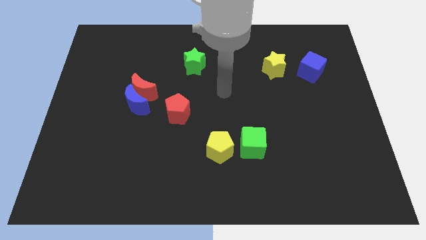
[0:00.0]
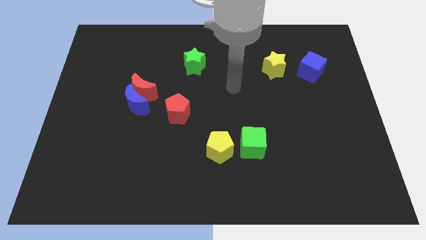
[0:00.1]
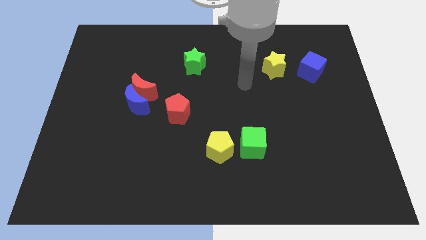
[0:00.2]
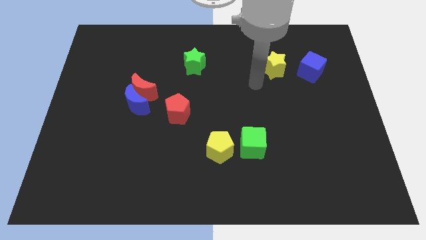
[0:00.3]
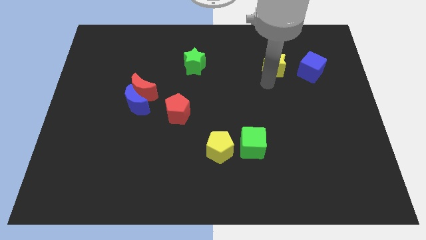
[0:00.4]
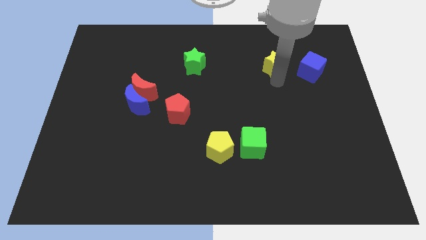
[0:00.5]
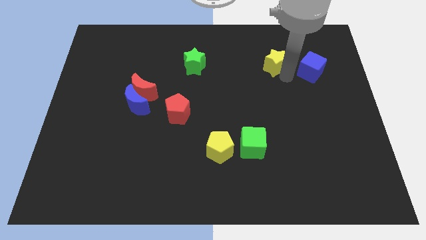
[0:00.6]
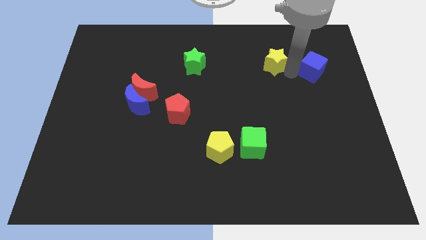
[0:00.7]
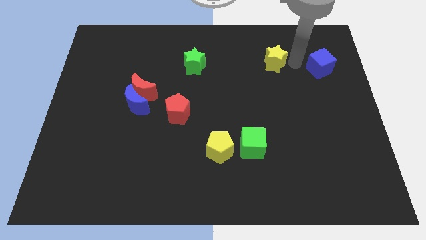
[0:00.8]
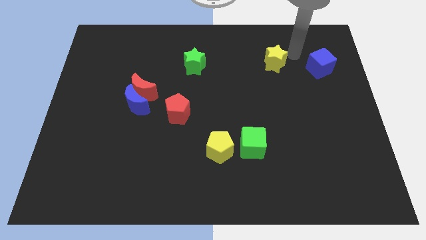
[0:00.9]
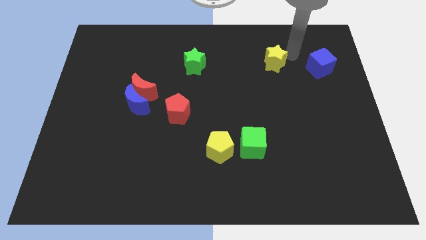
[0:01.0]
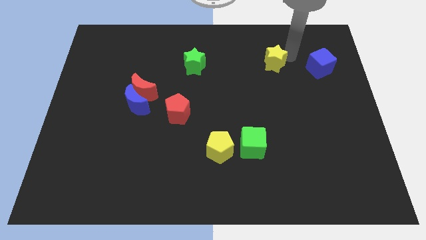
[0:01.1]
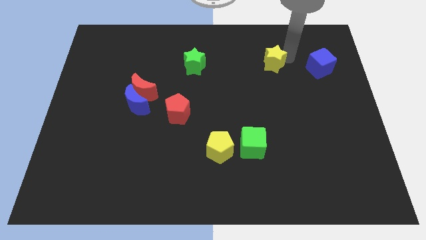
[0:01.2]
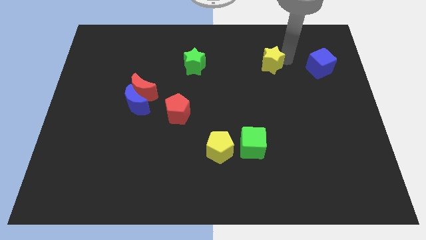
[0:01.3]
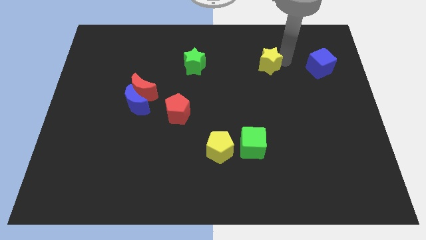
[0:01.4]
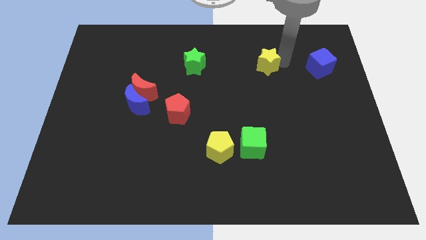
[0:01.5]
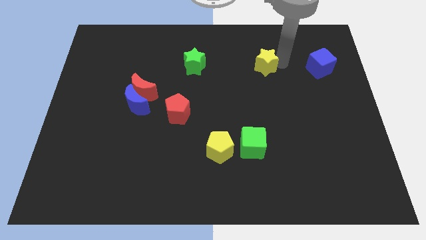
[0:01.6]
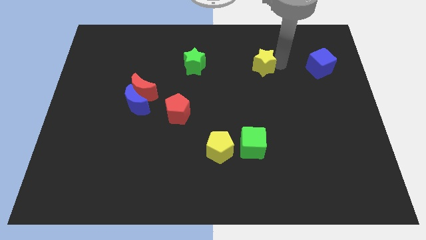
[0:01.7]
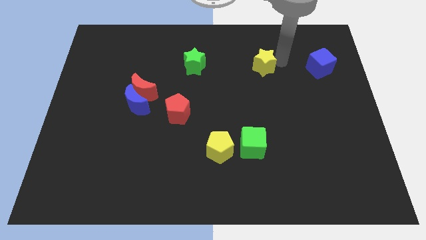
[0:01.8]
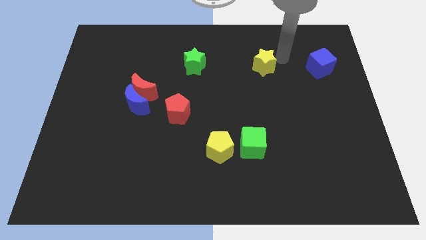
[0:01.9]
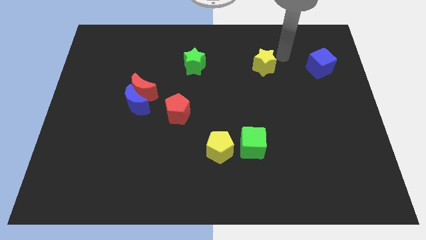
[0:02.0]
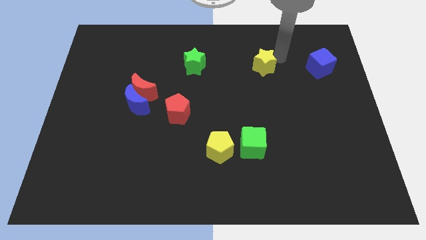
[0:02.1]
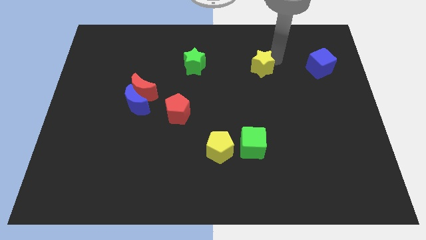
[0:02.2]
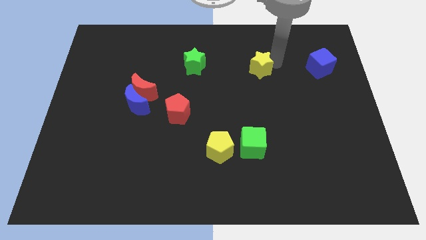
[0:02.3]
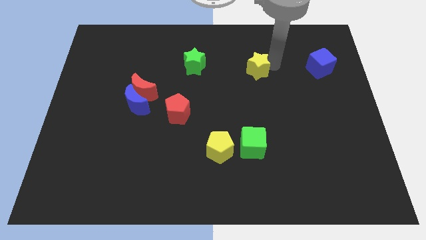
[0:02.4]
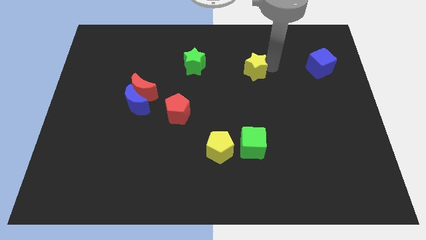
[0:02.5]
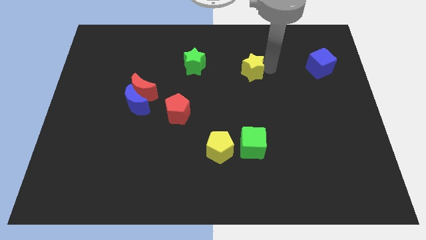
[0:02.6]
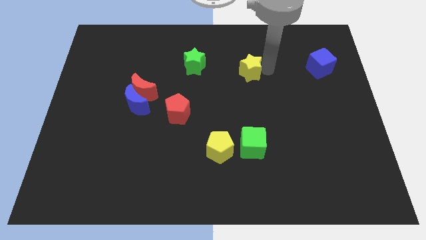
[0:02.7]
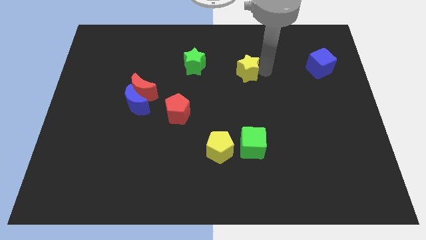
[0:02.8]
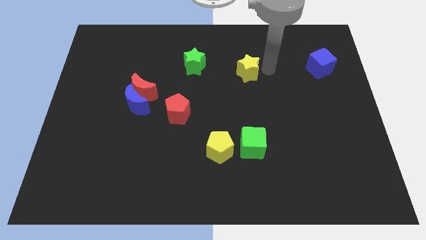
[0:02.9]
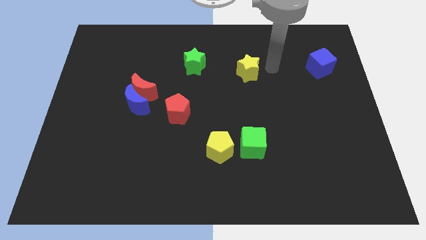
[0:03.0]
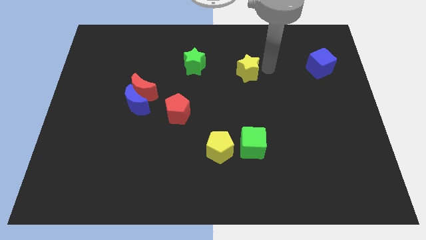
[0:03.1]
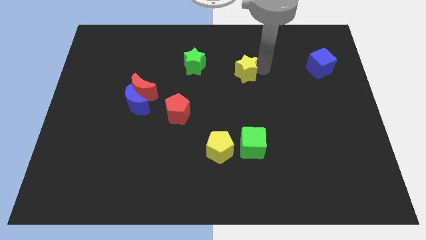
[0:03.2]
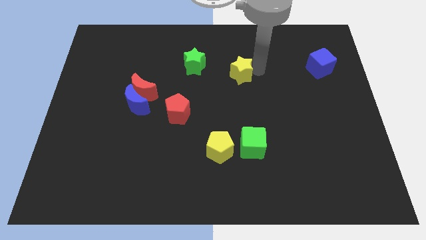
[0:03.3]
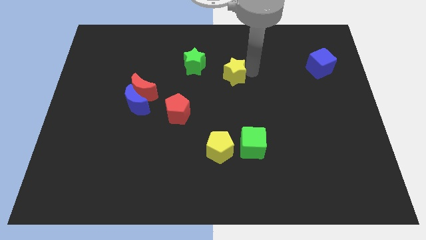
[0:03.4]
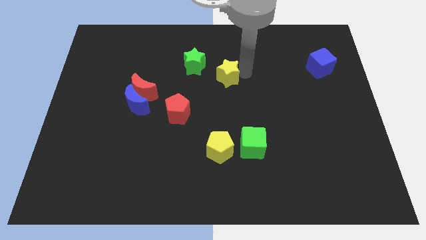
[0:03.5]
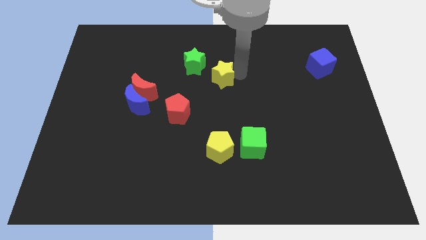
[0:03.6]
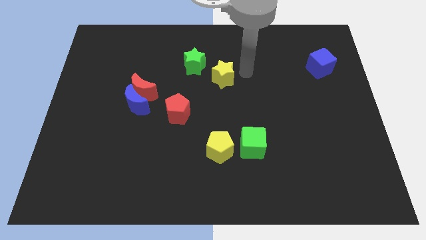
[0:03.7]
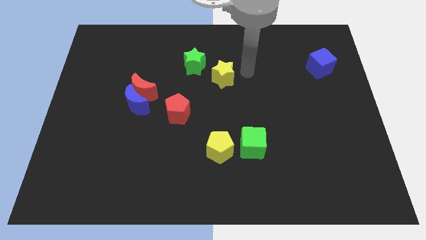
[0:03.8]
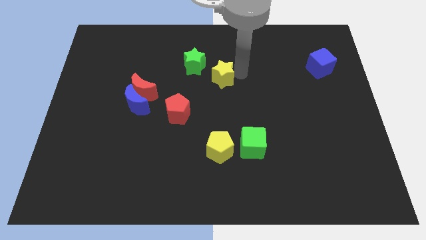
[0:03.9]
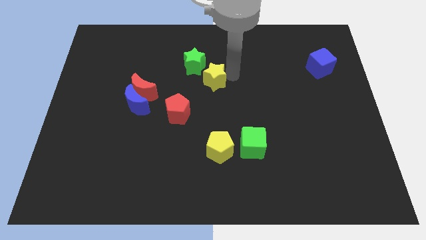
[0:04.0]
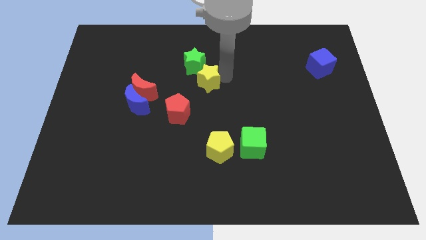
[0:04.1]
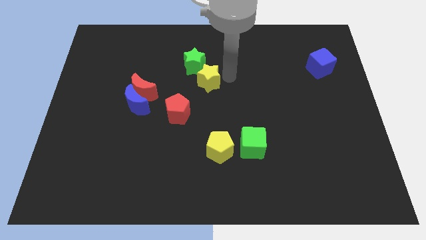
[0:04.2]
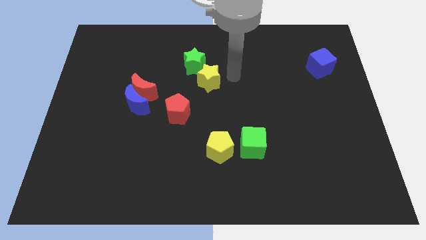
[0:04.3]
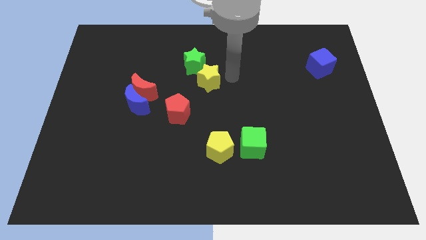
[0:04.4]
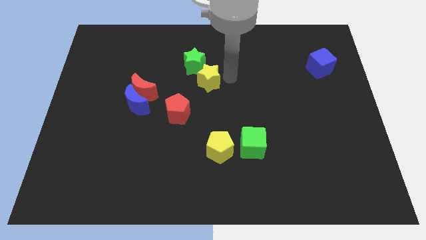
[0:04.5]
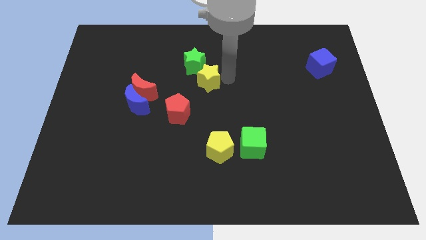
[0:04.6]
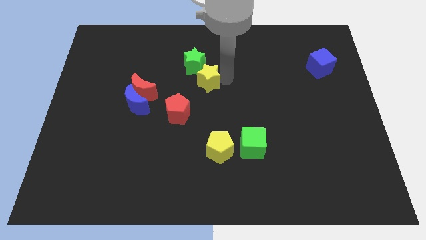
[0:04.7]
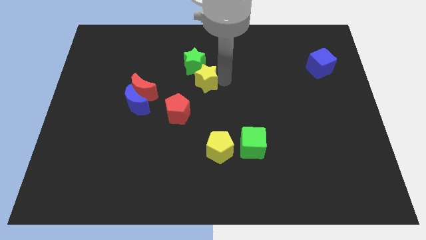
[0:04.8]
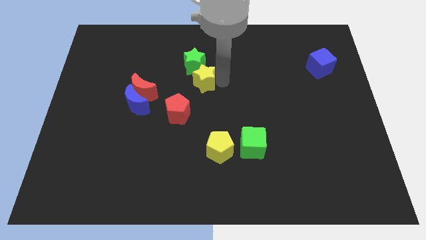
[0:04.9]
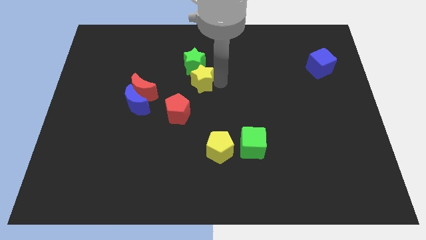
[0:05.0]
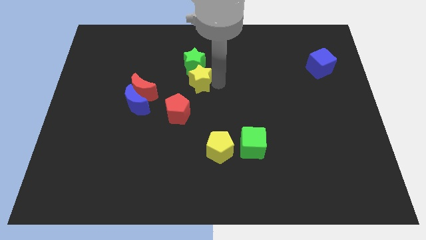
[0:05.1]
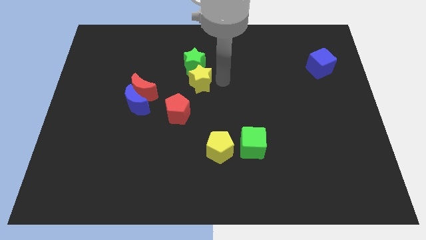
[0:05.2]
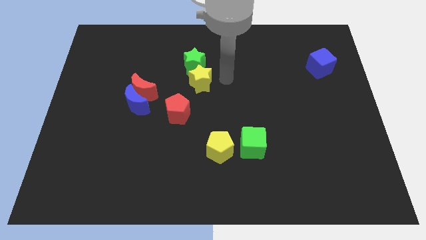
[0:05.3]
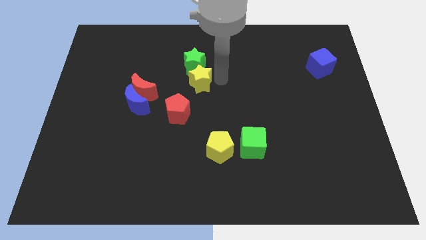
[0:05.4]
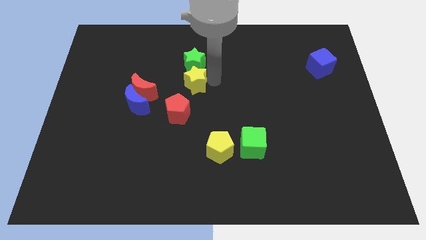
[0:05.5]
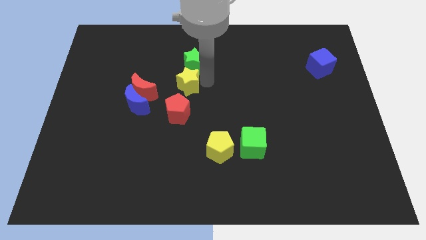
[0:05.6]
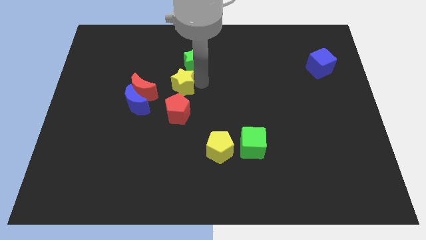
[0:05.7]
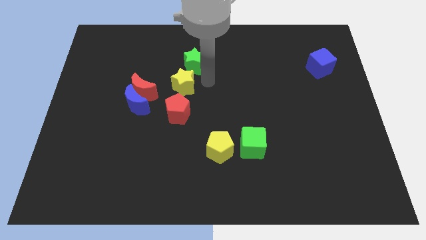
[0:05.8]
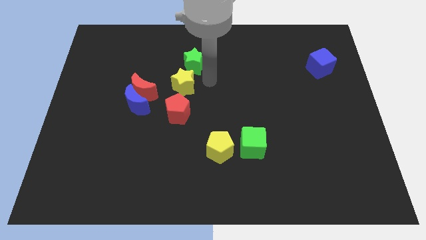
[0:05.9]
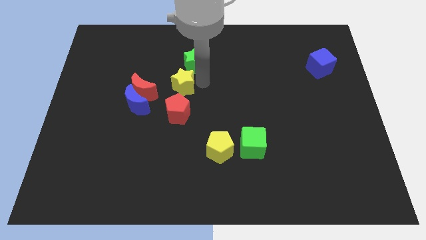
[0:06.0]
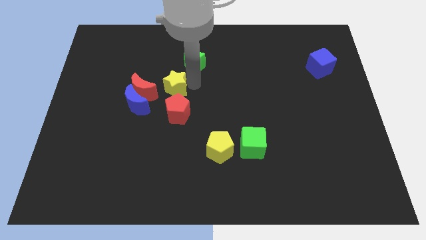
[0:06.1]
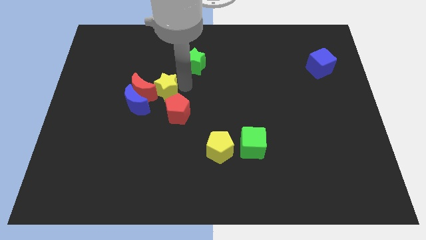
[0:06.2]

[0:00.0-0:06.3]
move the yellow star towards the red moon

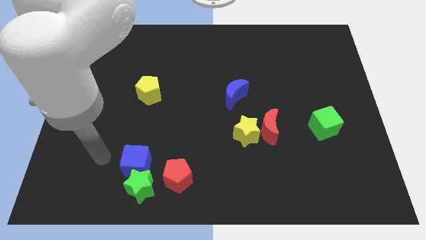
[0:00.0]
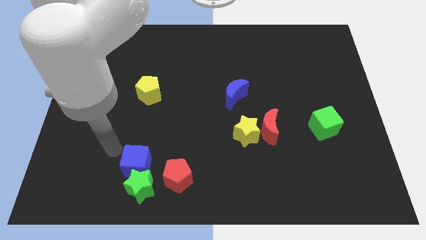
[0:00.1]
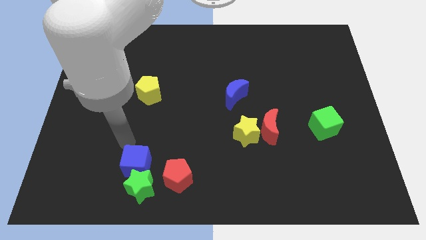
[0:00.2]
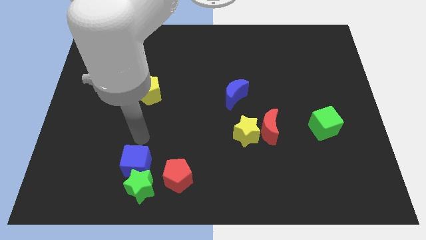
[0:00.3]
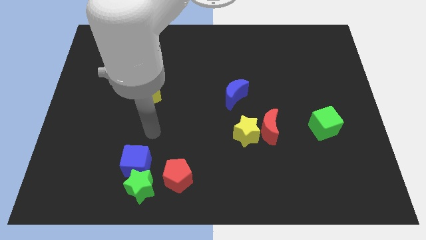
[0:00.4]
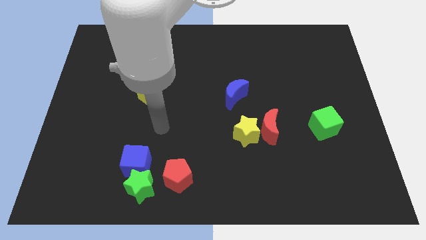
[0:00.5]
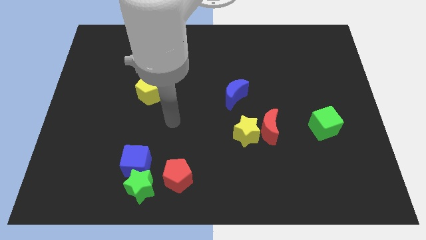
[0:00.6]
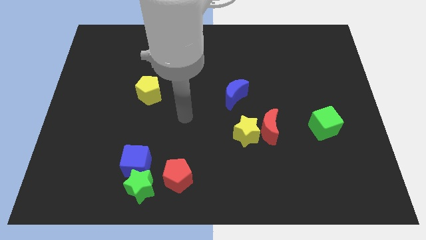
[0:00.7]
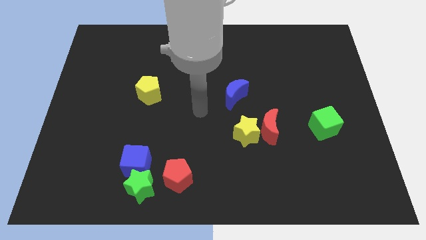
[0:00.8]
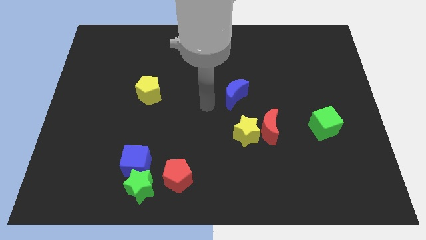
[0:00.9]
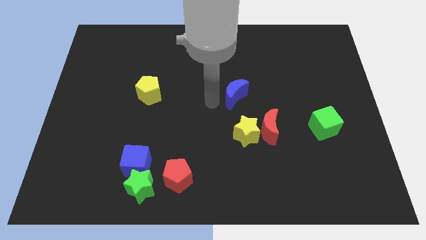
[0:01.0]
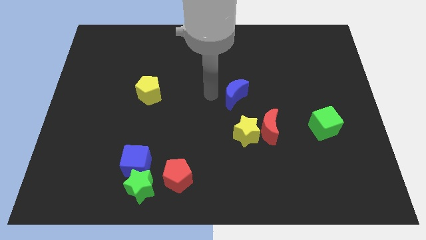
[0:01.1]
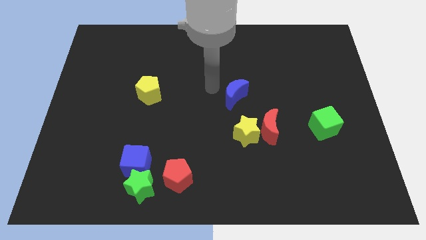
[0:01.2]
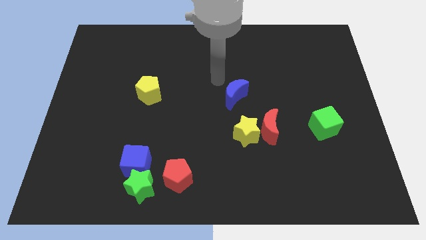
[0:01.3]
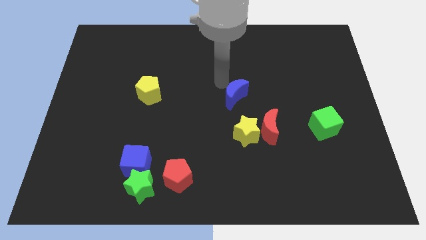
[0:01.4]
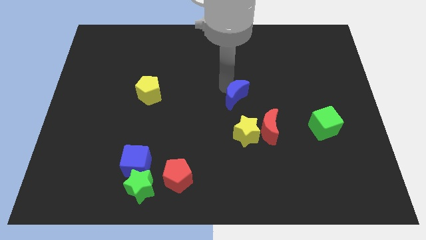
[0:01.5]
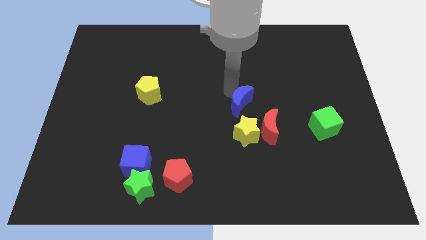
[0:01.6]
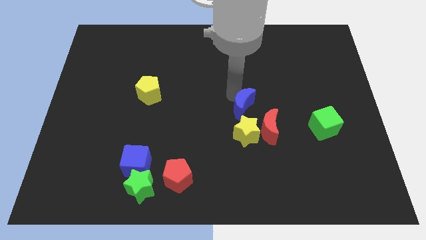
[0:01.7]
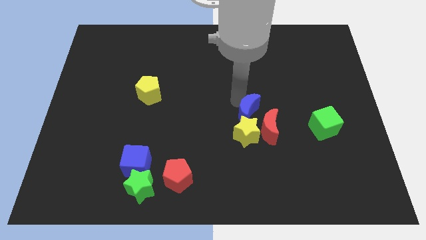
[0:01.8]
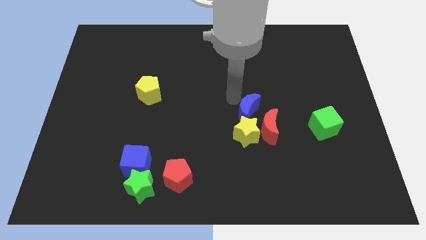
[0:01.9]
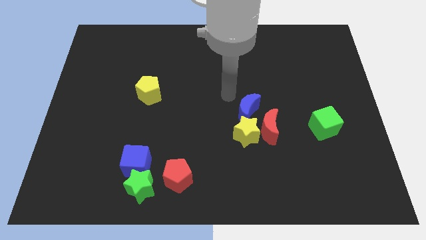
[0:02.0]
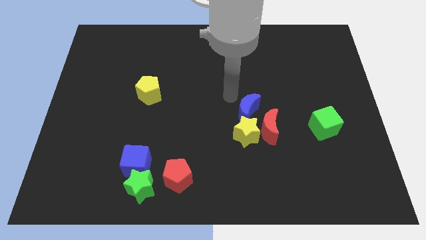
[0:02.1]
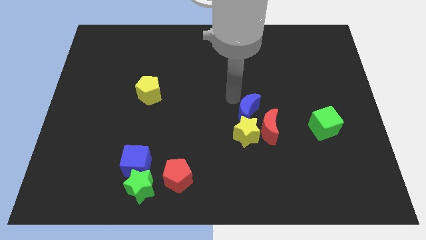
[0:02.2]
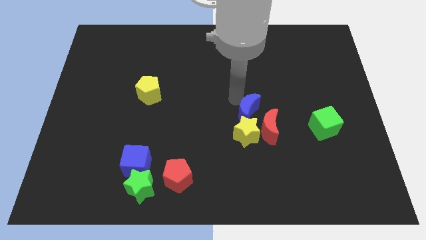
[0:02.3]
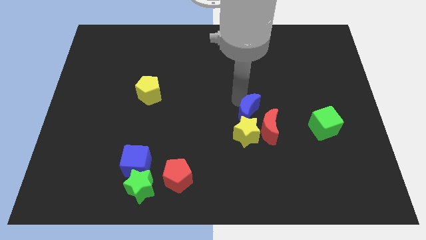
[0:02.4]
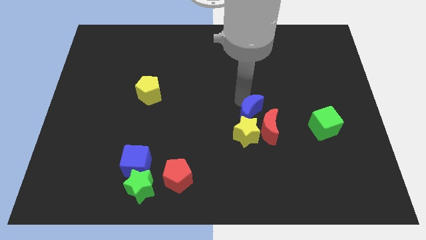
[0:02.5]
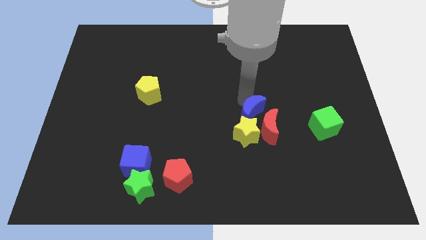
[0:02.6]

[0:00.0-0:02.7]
put the blue moon to the red moon
